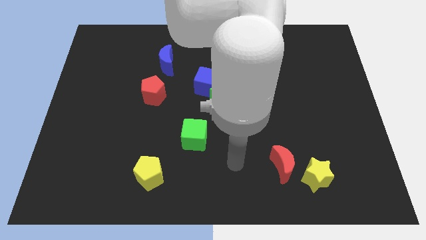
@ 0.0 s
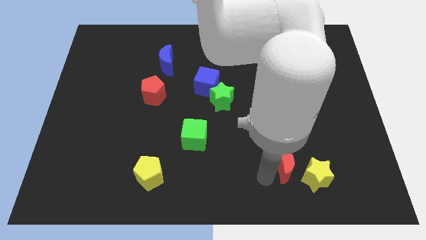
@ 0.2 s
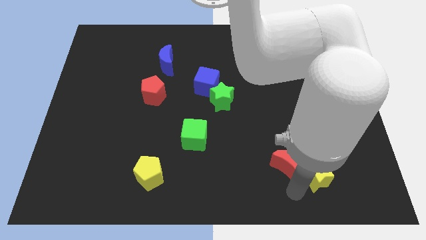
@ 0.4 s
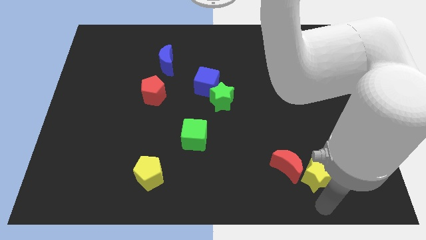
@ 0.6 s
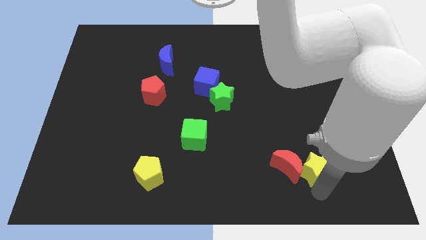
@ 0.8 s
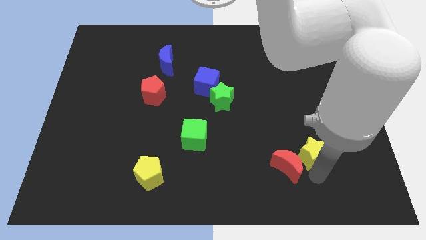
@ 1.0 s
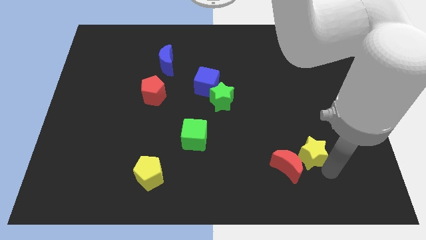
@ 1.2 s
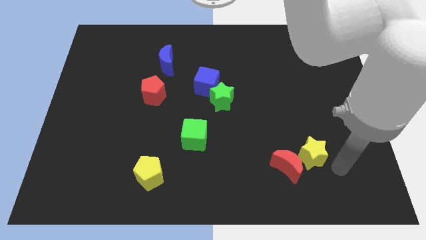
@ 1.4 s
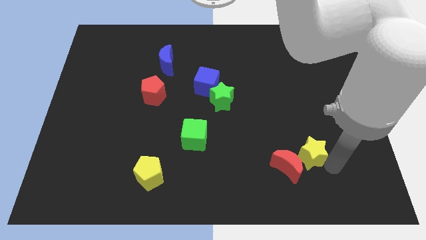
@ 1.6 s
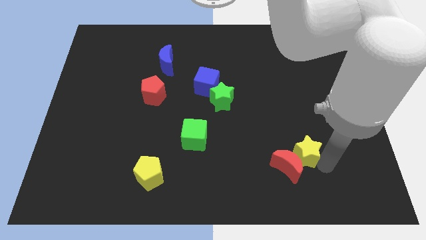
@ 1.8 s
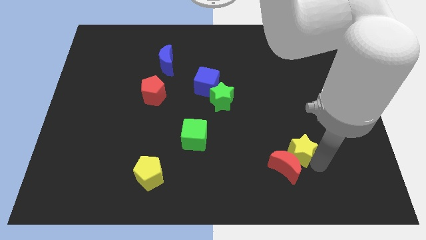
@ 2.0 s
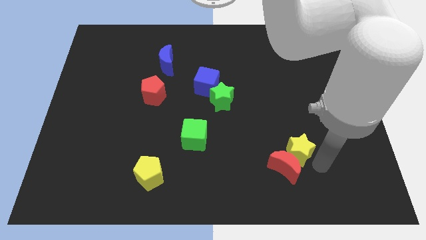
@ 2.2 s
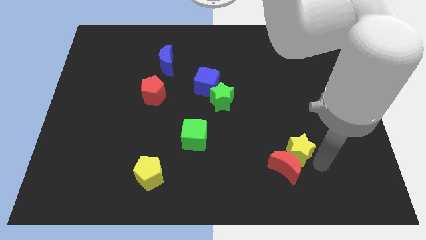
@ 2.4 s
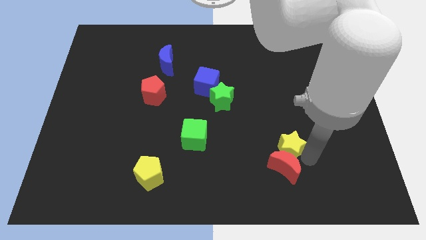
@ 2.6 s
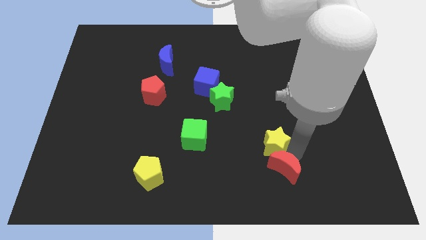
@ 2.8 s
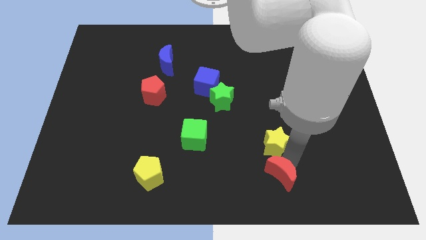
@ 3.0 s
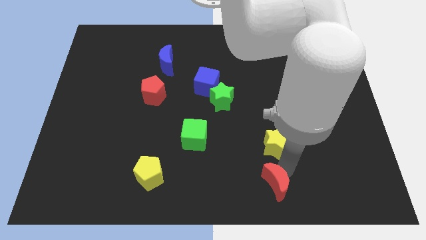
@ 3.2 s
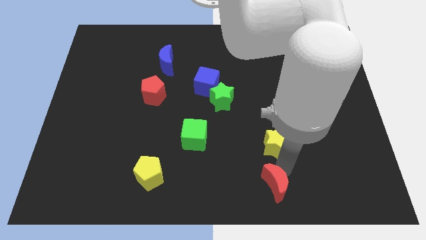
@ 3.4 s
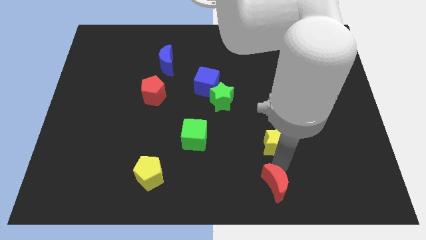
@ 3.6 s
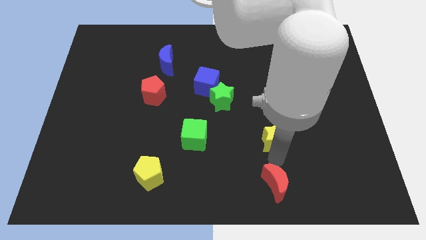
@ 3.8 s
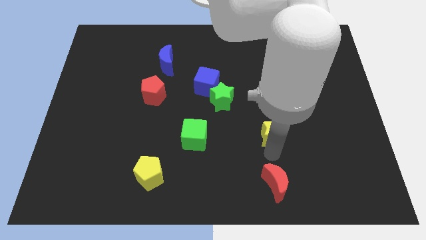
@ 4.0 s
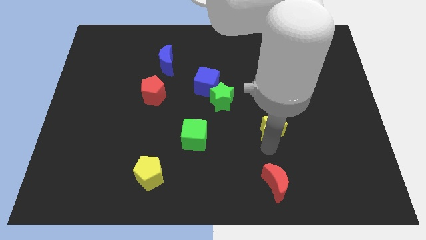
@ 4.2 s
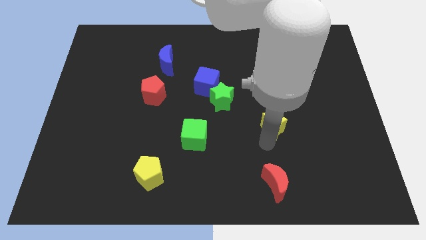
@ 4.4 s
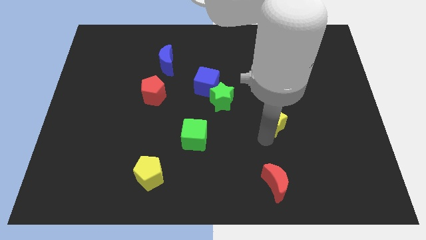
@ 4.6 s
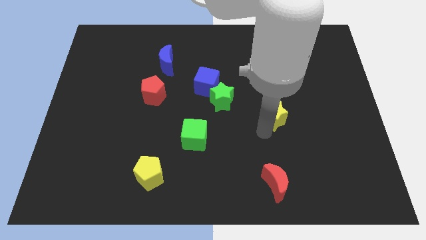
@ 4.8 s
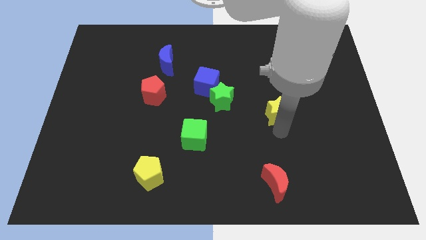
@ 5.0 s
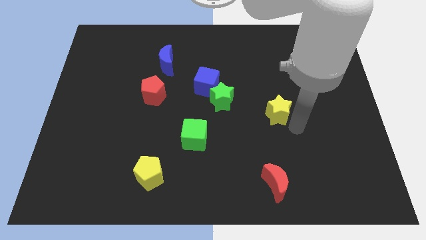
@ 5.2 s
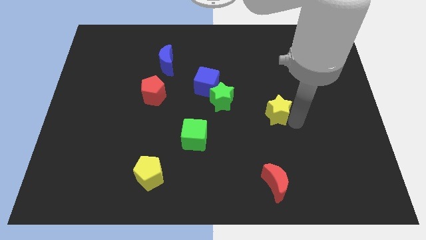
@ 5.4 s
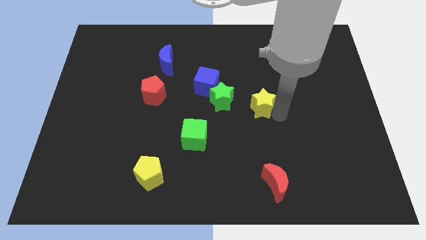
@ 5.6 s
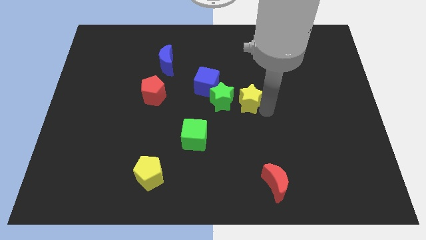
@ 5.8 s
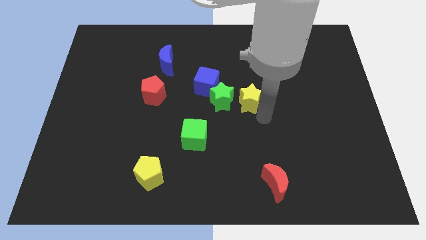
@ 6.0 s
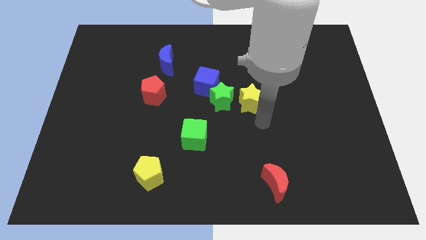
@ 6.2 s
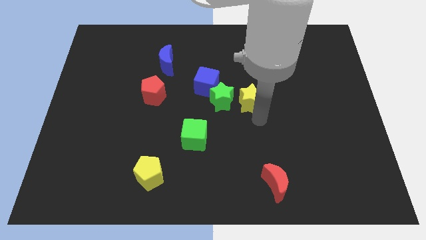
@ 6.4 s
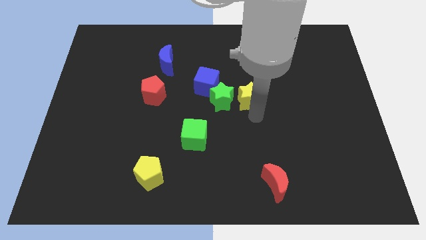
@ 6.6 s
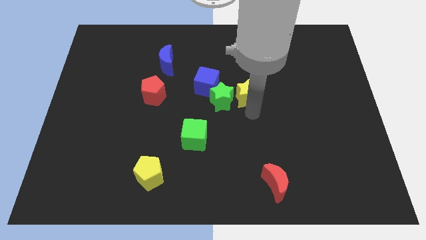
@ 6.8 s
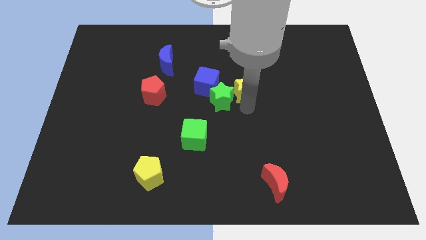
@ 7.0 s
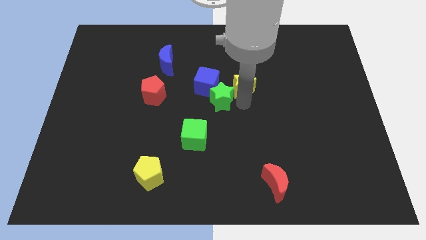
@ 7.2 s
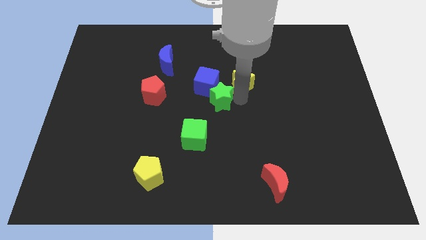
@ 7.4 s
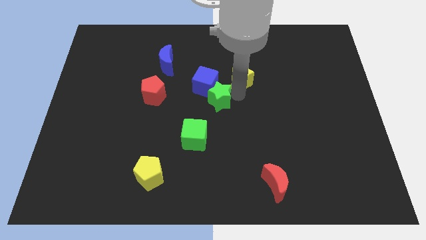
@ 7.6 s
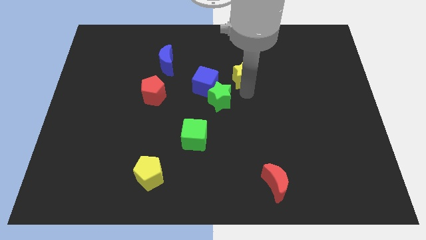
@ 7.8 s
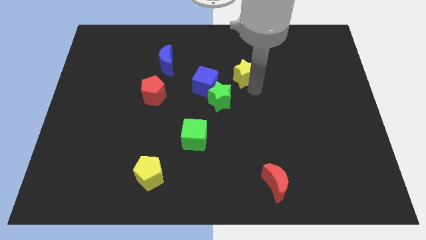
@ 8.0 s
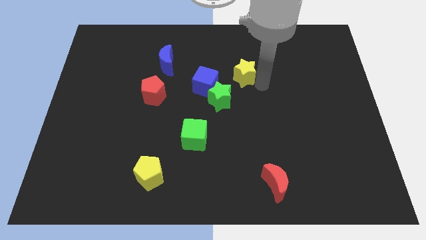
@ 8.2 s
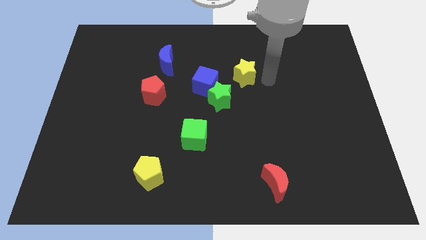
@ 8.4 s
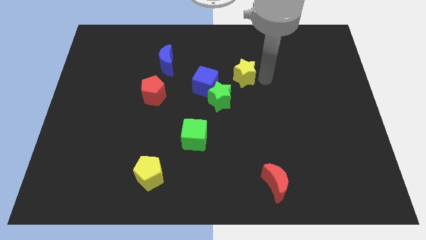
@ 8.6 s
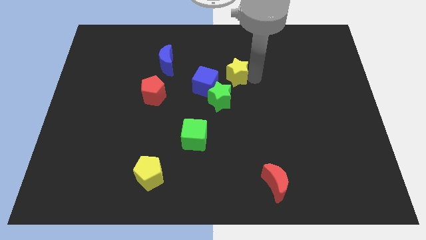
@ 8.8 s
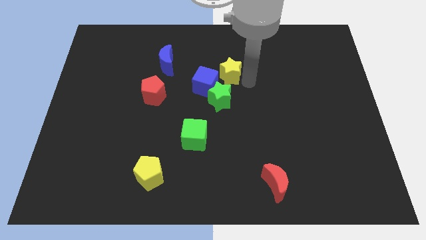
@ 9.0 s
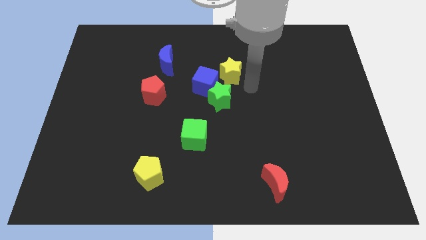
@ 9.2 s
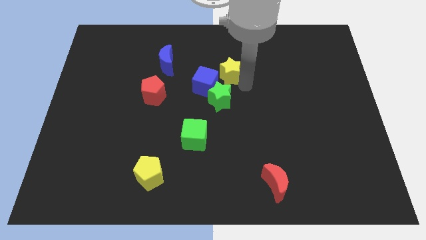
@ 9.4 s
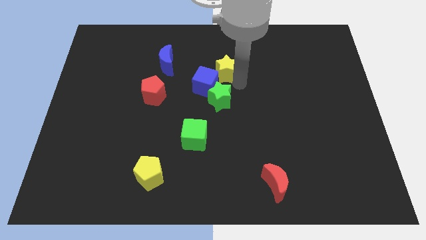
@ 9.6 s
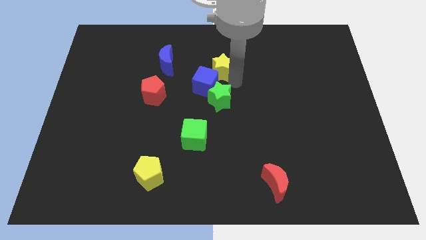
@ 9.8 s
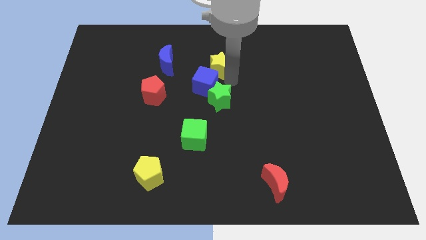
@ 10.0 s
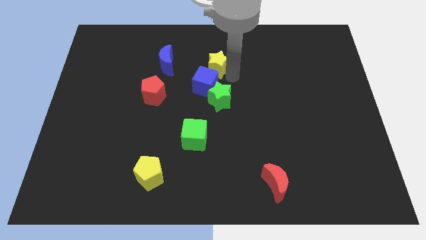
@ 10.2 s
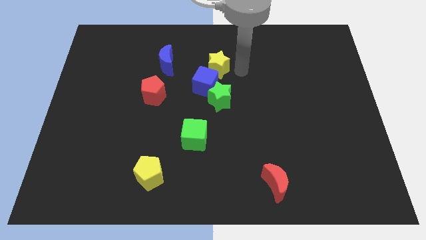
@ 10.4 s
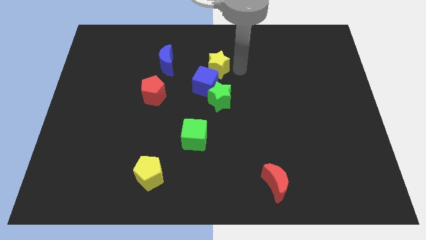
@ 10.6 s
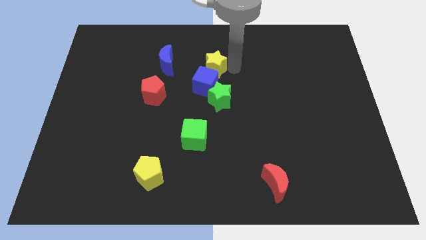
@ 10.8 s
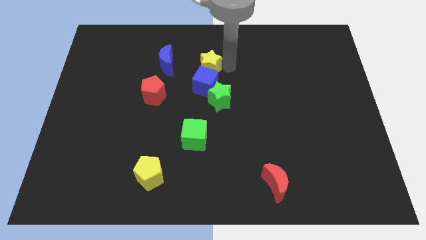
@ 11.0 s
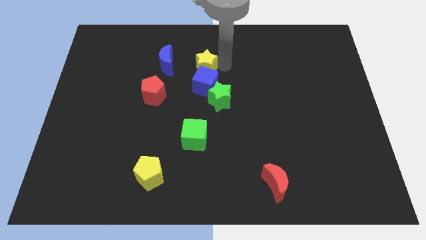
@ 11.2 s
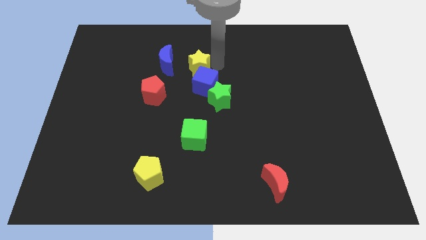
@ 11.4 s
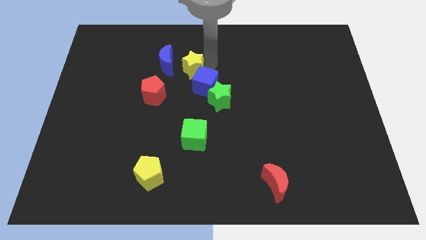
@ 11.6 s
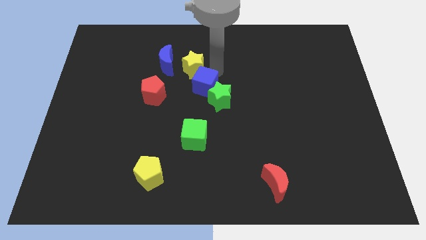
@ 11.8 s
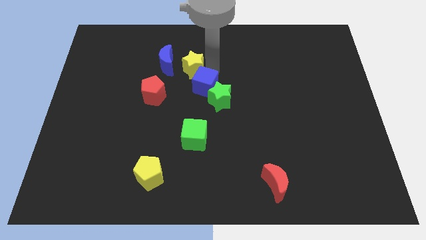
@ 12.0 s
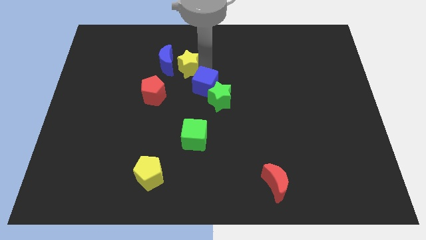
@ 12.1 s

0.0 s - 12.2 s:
move the yellow star close to the blue moon
